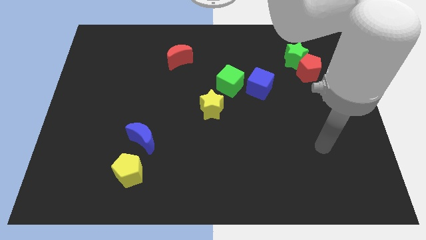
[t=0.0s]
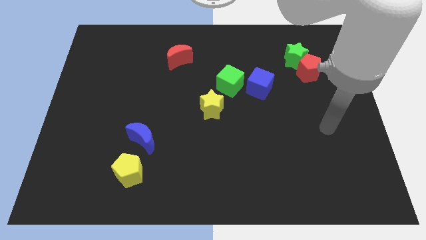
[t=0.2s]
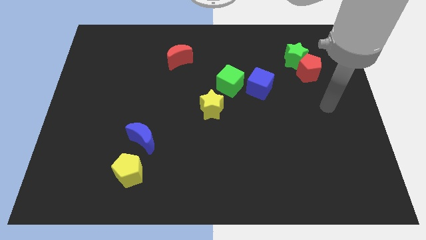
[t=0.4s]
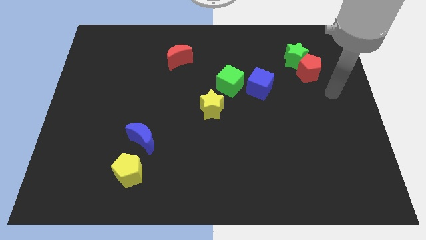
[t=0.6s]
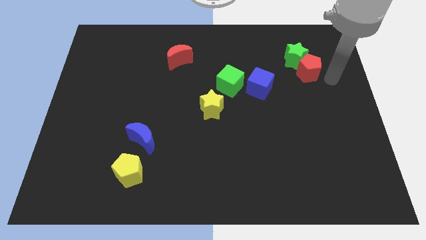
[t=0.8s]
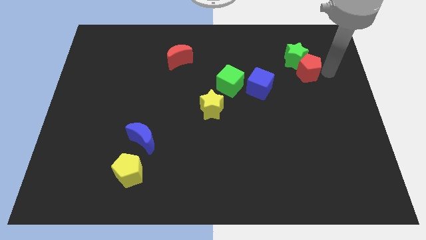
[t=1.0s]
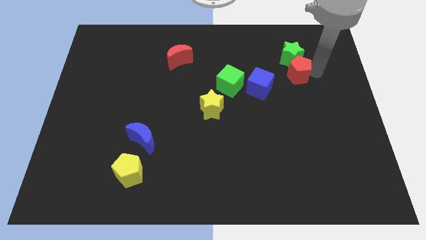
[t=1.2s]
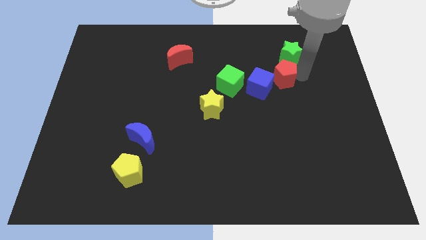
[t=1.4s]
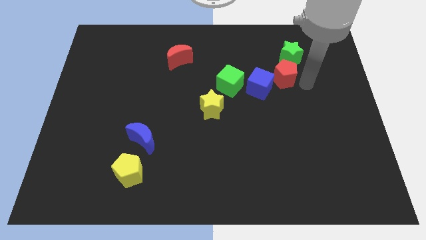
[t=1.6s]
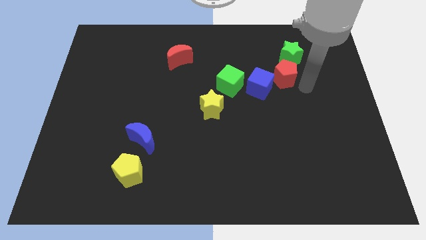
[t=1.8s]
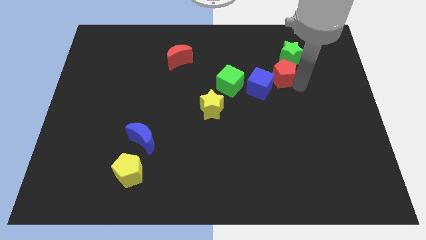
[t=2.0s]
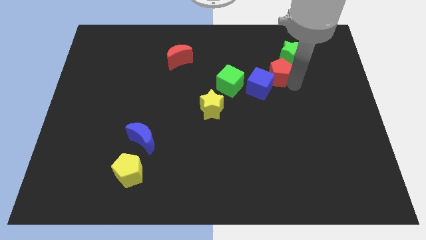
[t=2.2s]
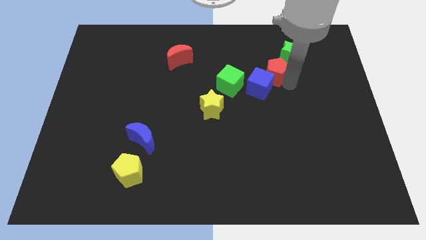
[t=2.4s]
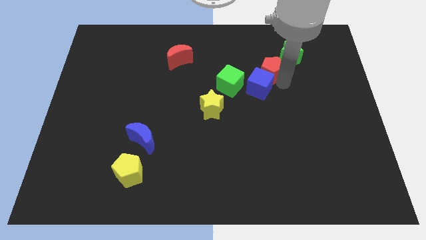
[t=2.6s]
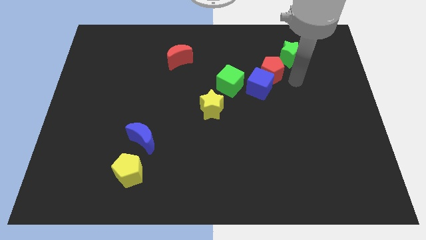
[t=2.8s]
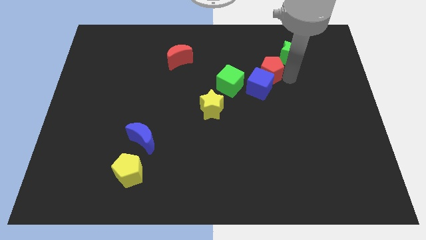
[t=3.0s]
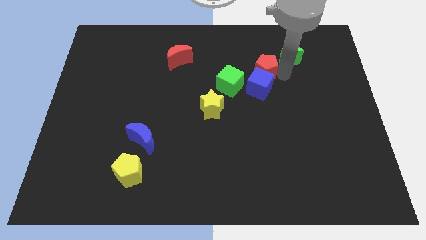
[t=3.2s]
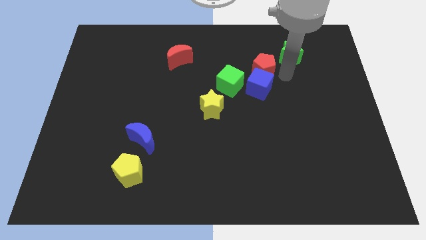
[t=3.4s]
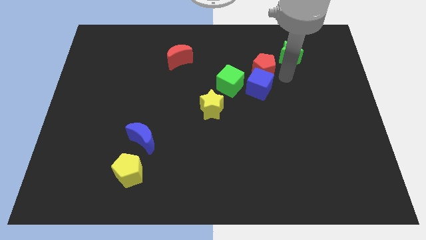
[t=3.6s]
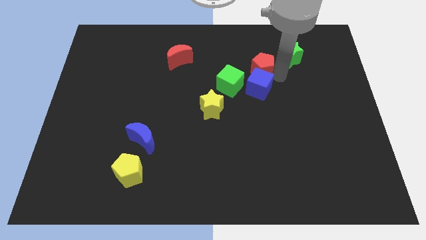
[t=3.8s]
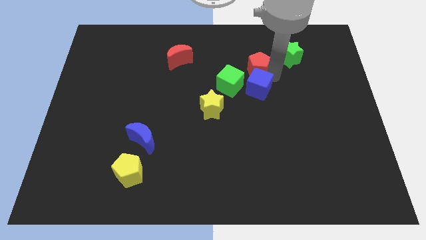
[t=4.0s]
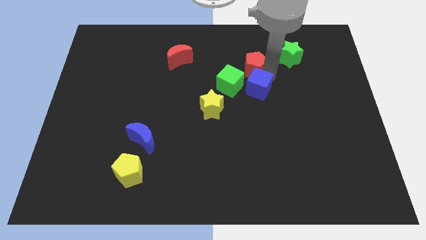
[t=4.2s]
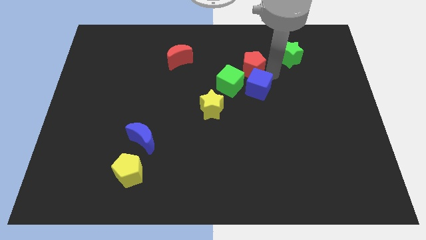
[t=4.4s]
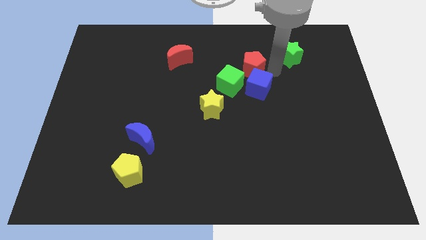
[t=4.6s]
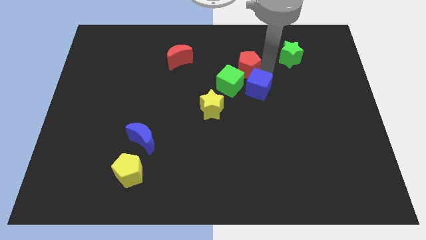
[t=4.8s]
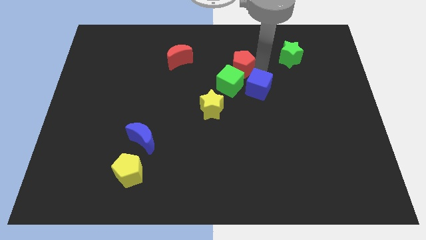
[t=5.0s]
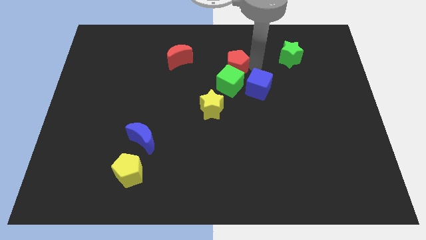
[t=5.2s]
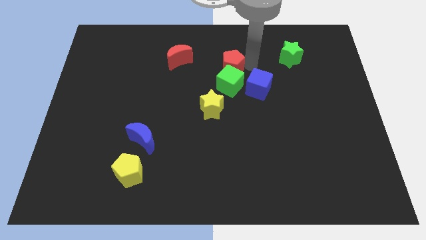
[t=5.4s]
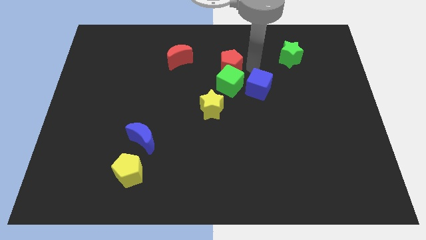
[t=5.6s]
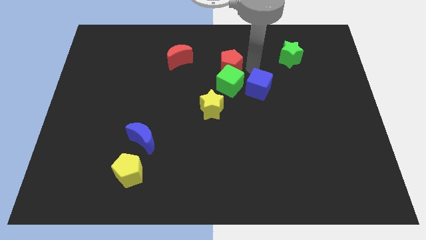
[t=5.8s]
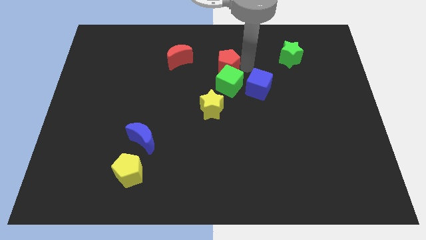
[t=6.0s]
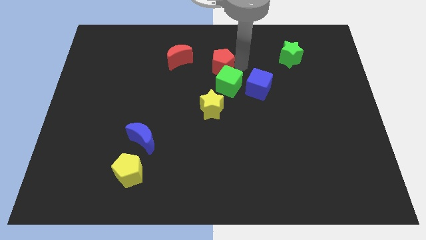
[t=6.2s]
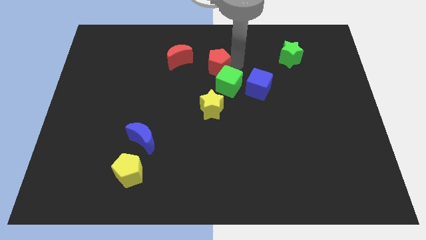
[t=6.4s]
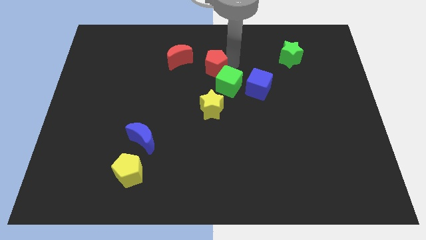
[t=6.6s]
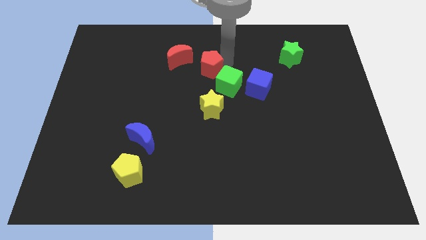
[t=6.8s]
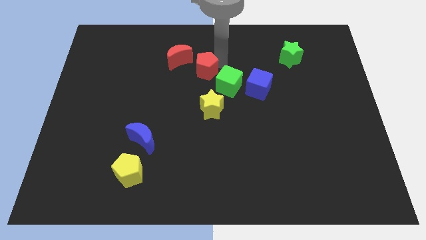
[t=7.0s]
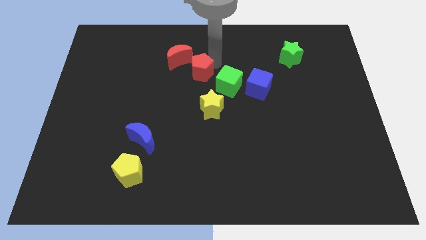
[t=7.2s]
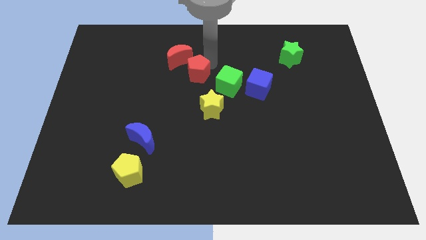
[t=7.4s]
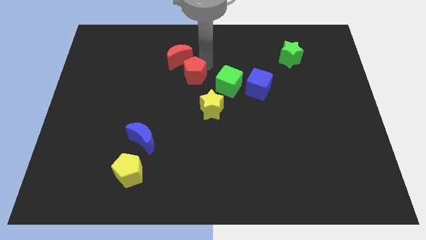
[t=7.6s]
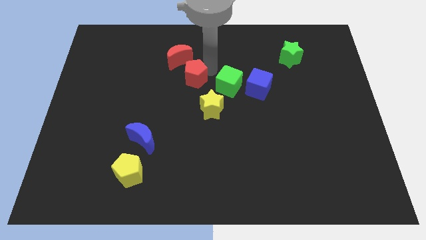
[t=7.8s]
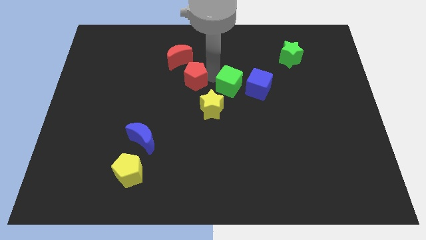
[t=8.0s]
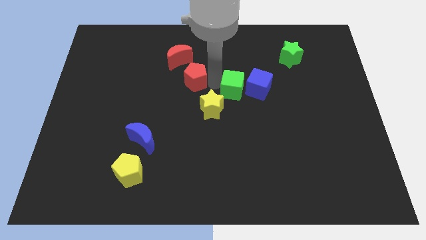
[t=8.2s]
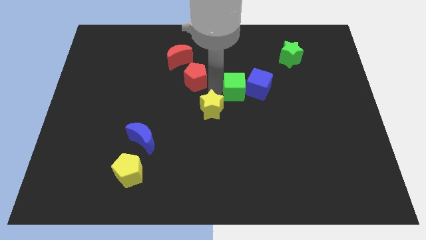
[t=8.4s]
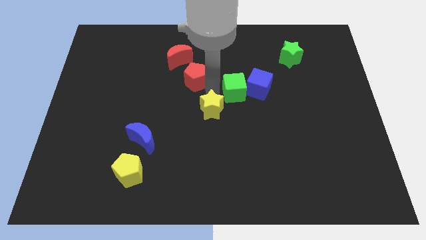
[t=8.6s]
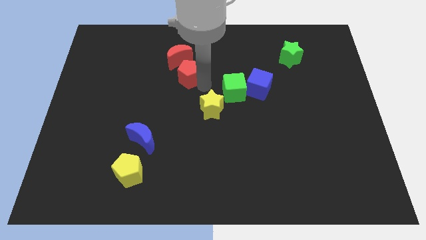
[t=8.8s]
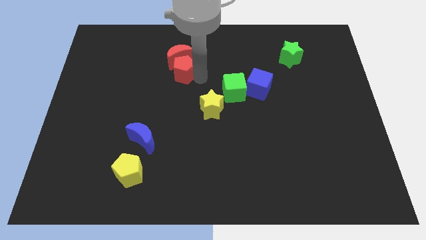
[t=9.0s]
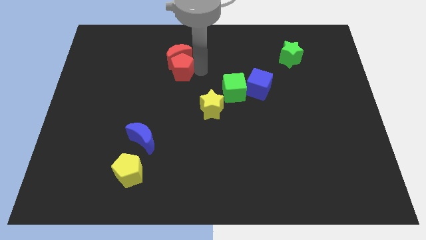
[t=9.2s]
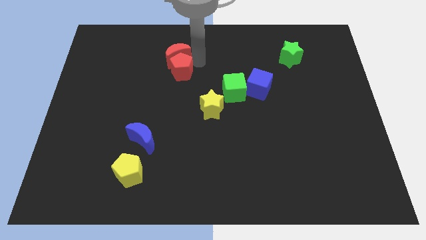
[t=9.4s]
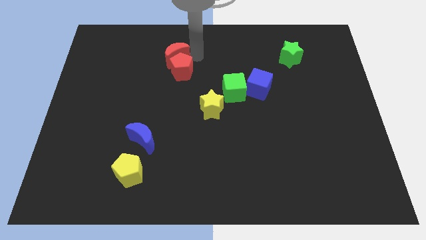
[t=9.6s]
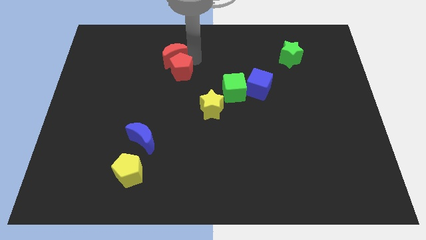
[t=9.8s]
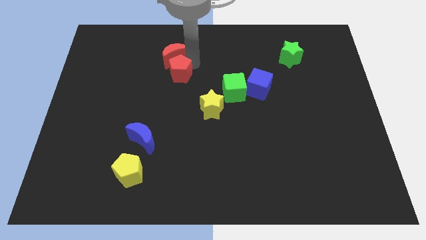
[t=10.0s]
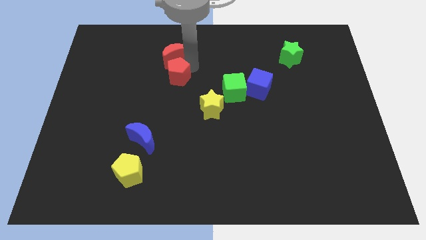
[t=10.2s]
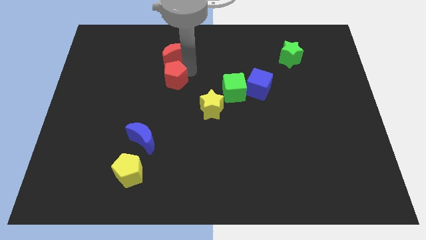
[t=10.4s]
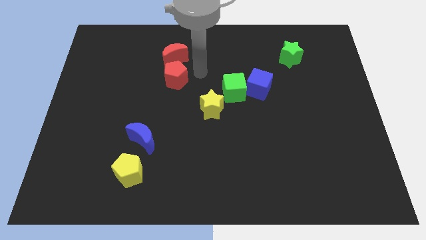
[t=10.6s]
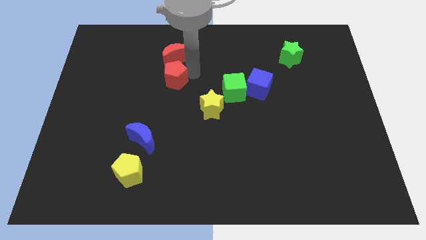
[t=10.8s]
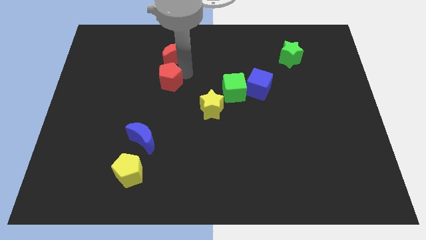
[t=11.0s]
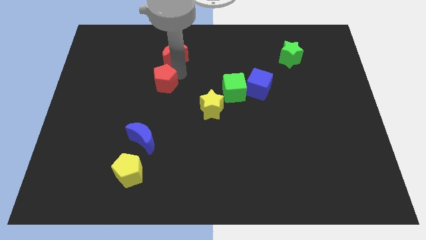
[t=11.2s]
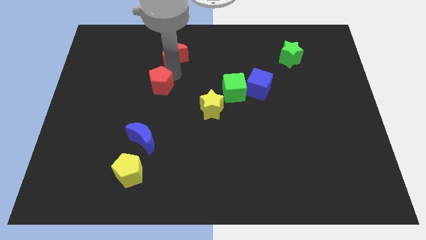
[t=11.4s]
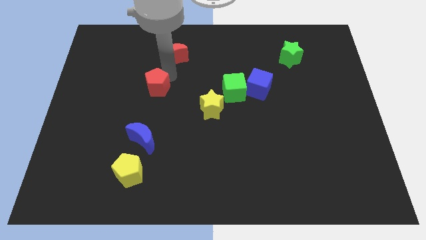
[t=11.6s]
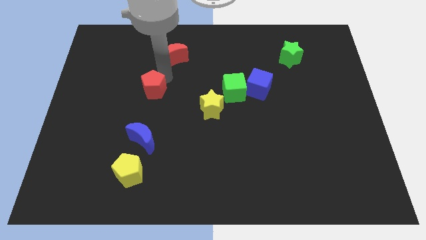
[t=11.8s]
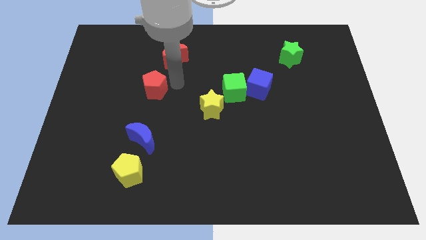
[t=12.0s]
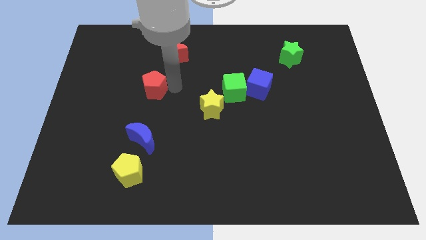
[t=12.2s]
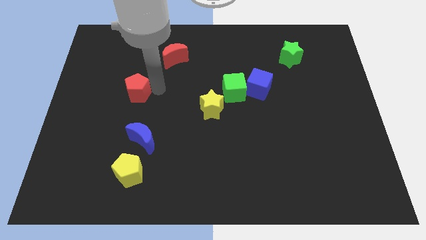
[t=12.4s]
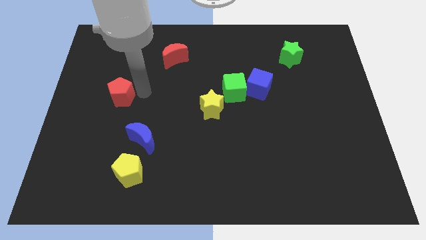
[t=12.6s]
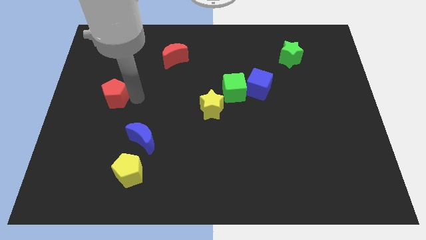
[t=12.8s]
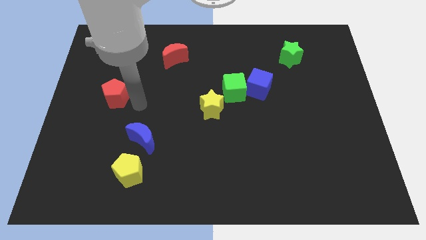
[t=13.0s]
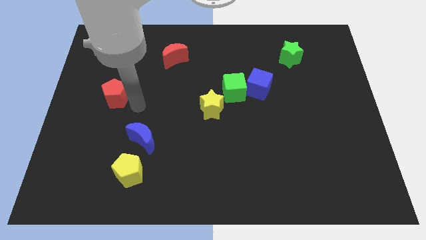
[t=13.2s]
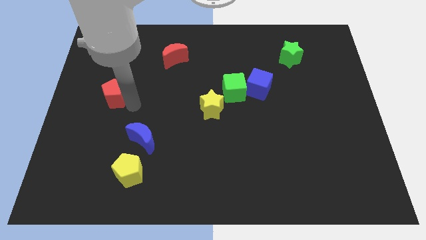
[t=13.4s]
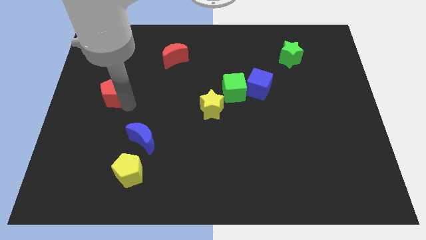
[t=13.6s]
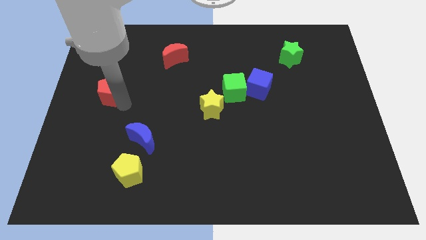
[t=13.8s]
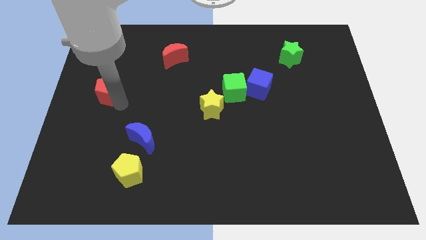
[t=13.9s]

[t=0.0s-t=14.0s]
move the red pentagon to the center left
